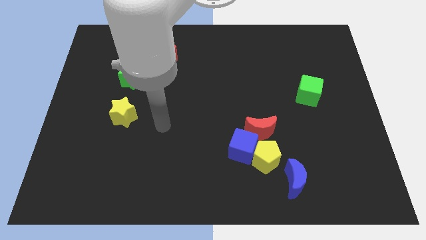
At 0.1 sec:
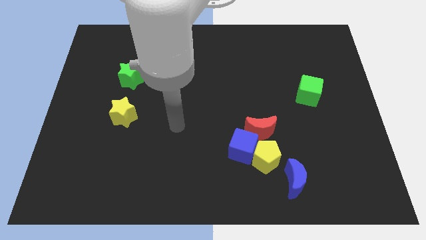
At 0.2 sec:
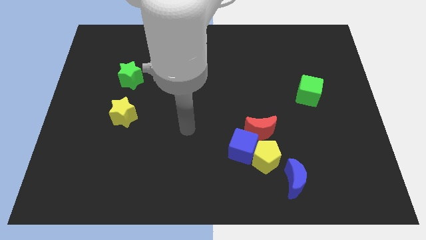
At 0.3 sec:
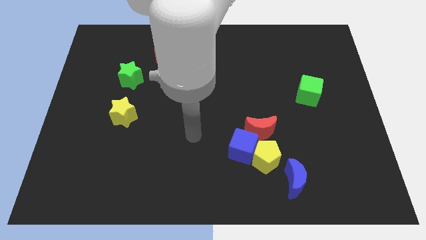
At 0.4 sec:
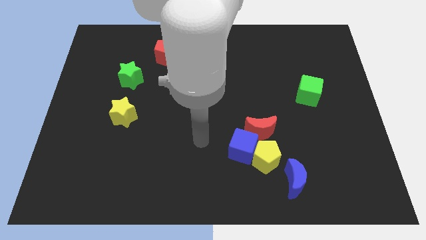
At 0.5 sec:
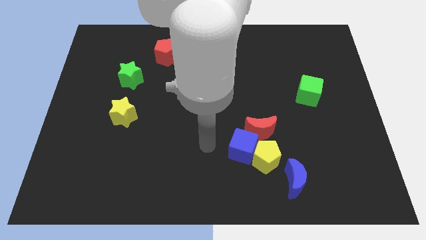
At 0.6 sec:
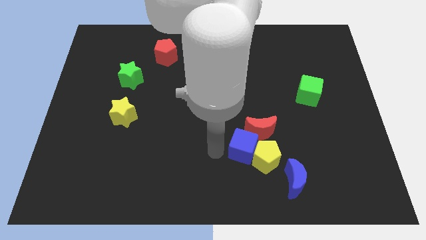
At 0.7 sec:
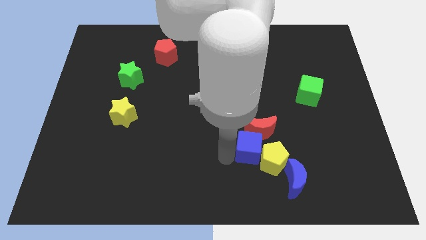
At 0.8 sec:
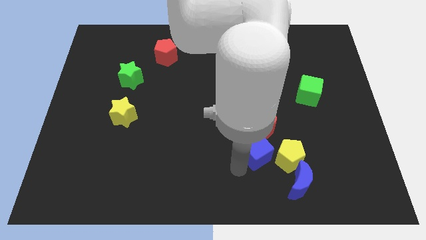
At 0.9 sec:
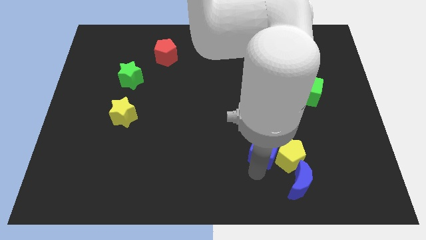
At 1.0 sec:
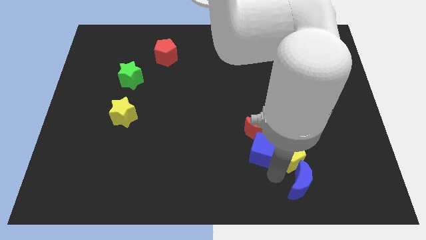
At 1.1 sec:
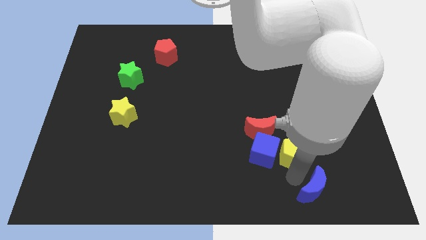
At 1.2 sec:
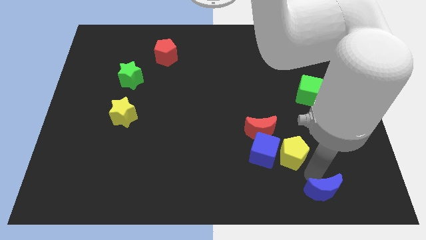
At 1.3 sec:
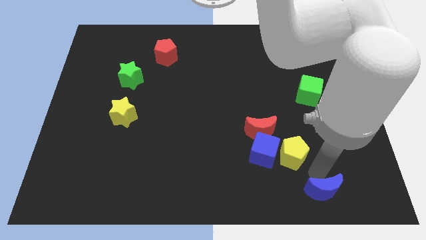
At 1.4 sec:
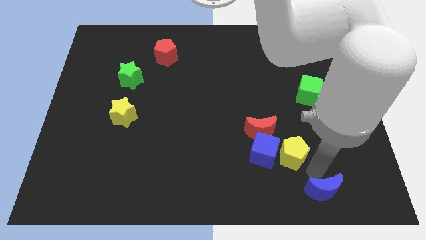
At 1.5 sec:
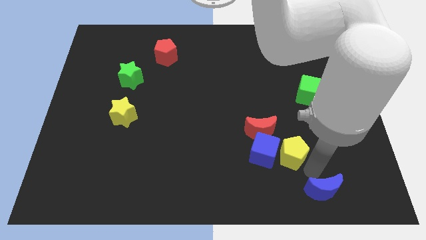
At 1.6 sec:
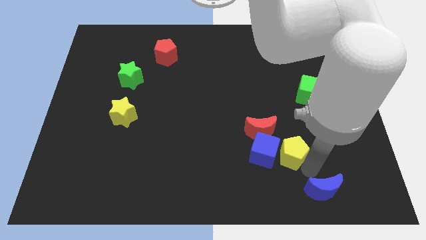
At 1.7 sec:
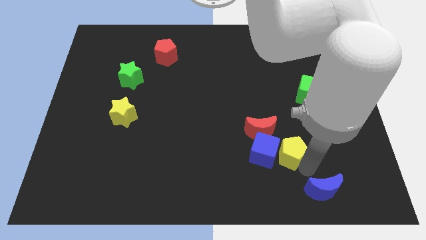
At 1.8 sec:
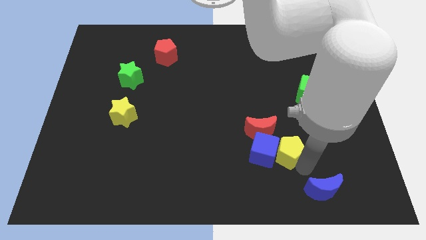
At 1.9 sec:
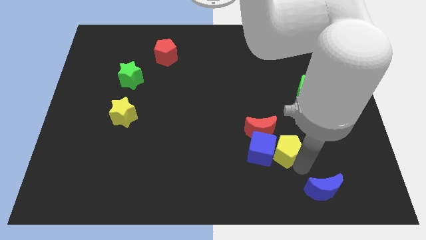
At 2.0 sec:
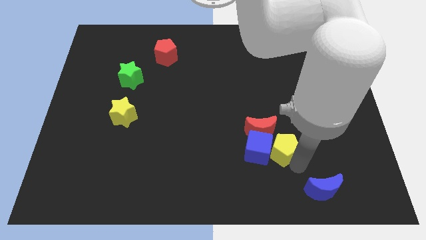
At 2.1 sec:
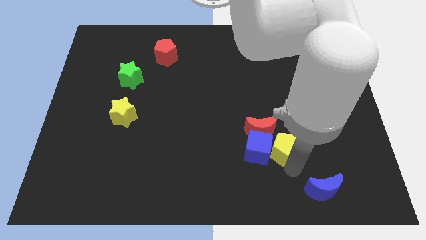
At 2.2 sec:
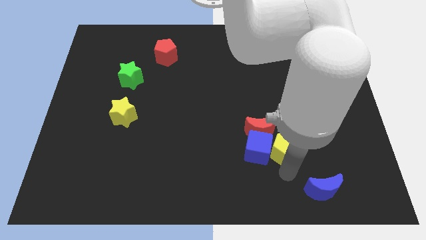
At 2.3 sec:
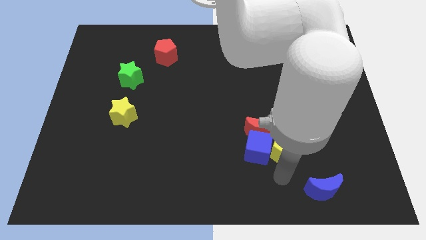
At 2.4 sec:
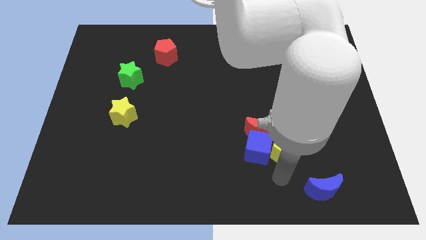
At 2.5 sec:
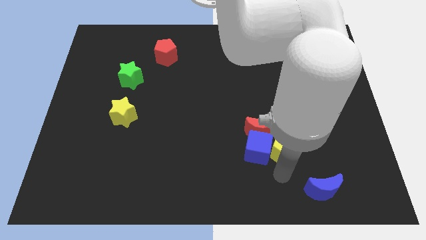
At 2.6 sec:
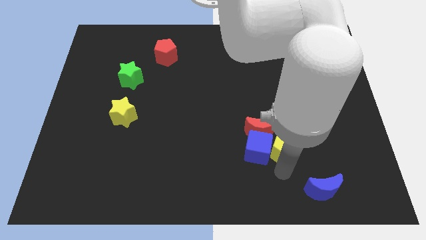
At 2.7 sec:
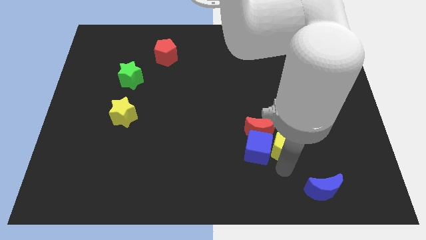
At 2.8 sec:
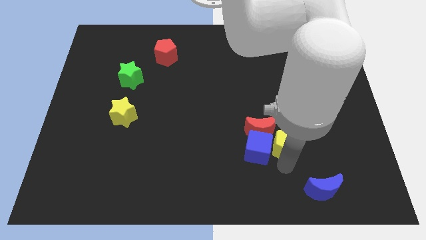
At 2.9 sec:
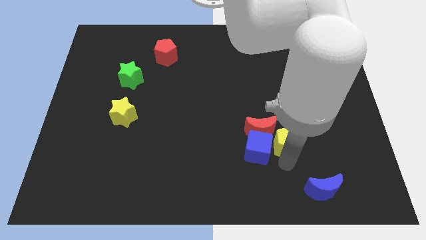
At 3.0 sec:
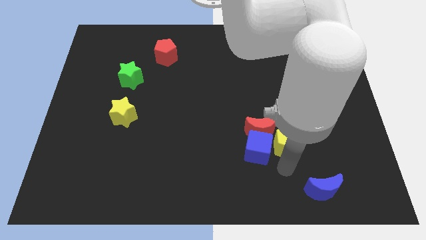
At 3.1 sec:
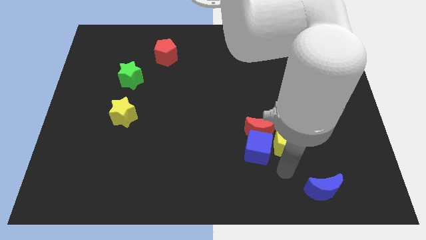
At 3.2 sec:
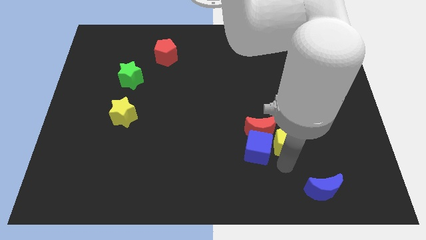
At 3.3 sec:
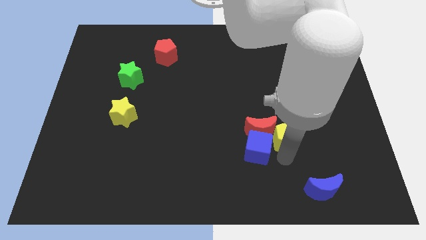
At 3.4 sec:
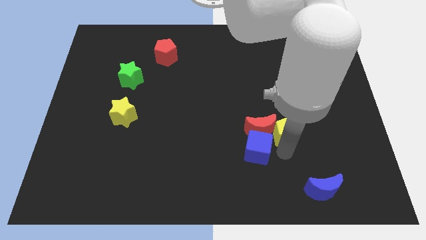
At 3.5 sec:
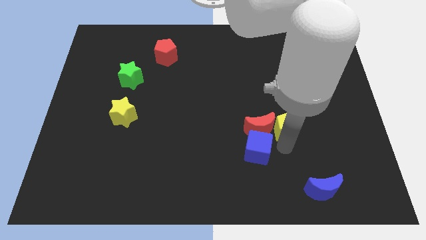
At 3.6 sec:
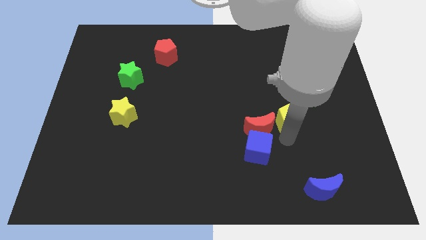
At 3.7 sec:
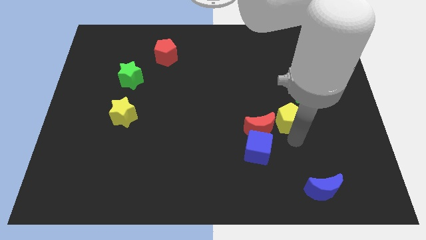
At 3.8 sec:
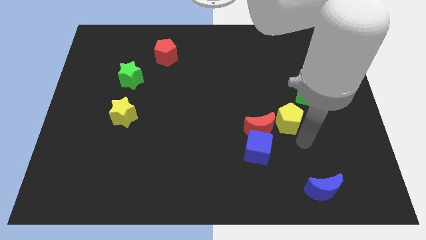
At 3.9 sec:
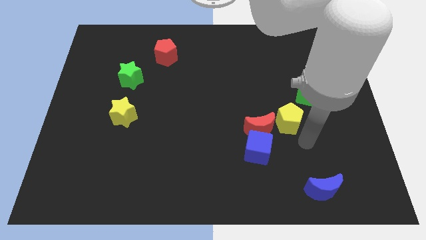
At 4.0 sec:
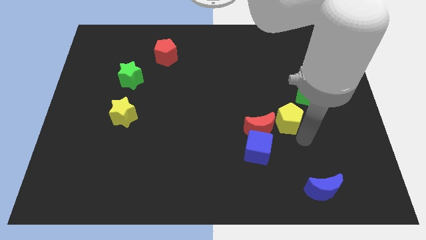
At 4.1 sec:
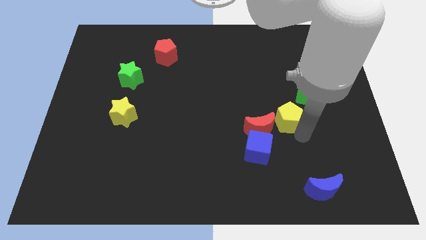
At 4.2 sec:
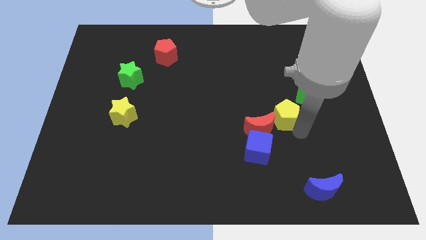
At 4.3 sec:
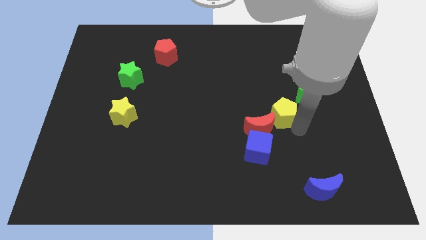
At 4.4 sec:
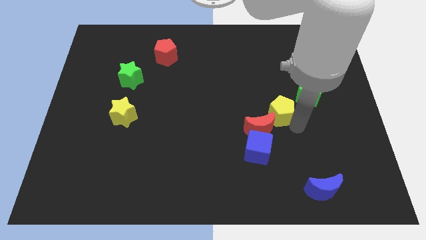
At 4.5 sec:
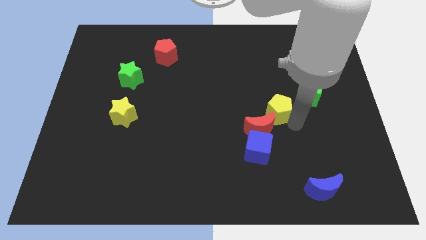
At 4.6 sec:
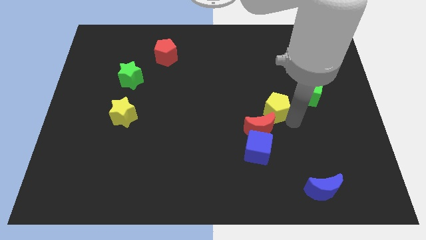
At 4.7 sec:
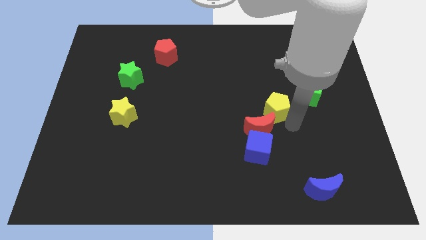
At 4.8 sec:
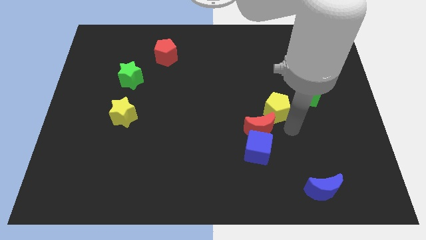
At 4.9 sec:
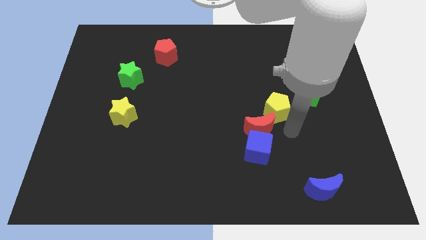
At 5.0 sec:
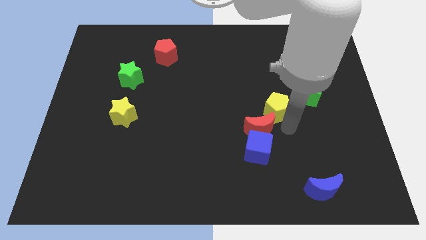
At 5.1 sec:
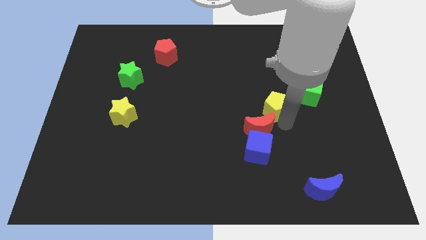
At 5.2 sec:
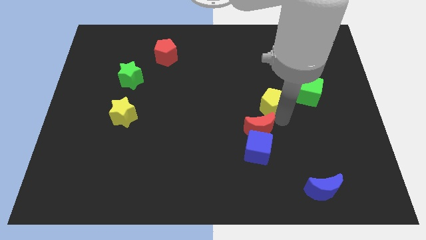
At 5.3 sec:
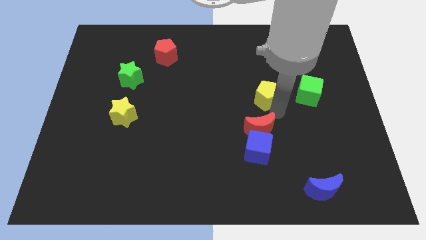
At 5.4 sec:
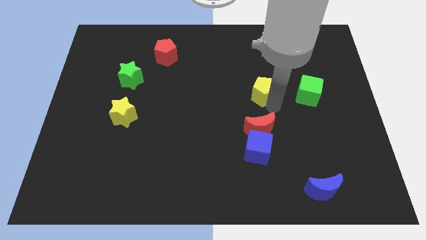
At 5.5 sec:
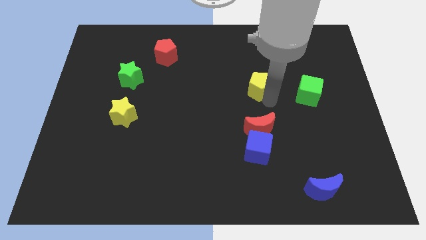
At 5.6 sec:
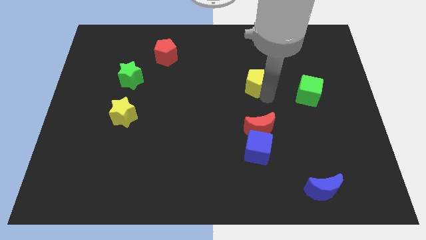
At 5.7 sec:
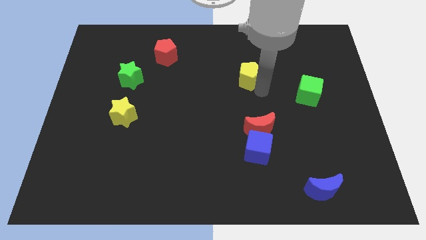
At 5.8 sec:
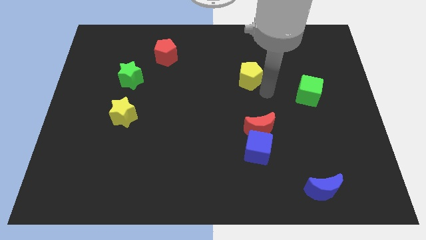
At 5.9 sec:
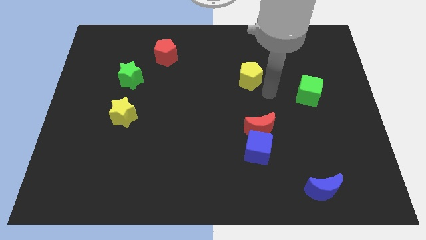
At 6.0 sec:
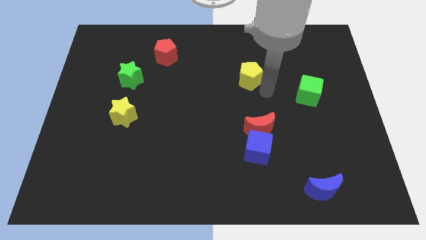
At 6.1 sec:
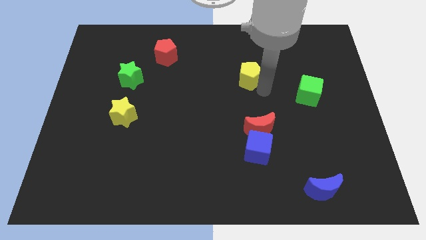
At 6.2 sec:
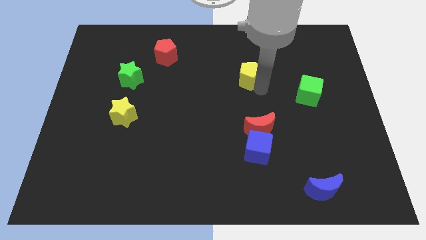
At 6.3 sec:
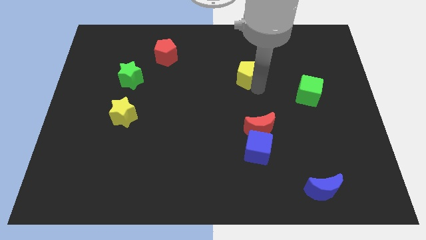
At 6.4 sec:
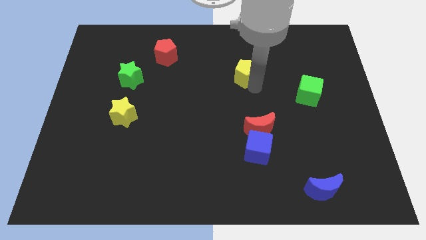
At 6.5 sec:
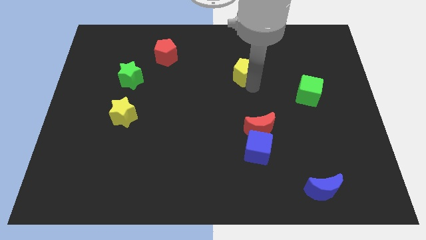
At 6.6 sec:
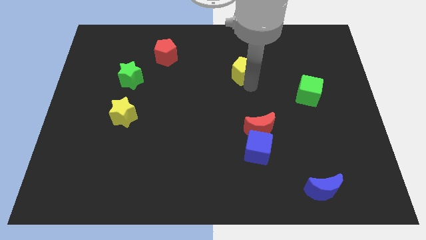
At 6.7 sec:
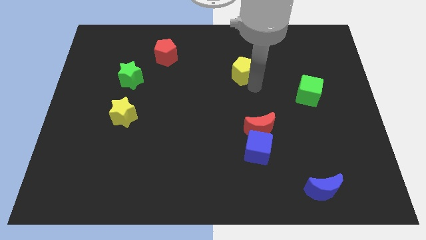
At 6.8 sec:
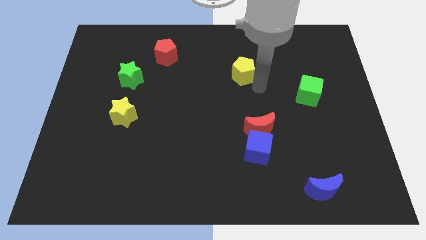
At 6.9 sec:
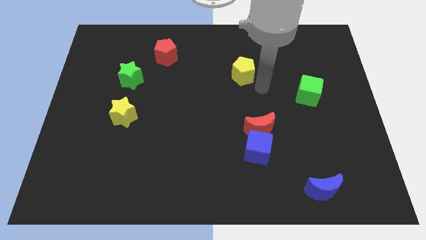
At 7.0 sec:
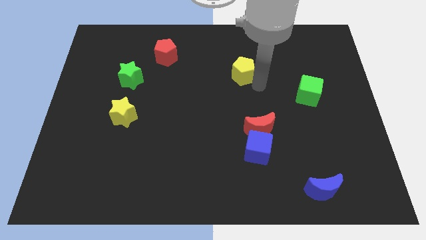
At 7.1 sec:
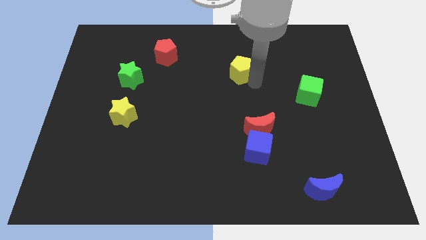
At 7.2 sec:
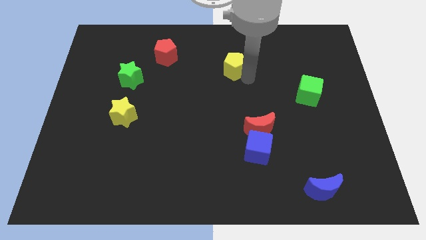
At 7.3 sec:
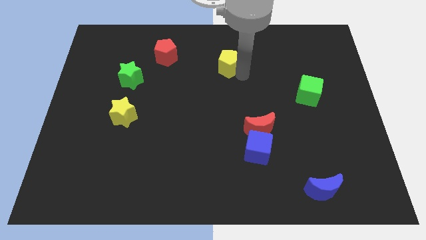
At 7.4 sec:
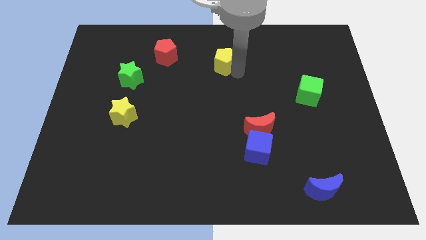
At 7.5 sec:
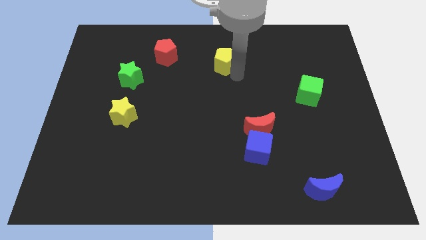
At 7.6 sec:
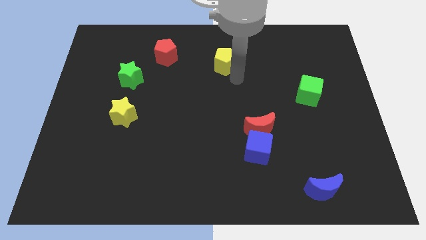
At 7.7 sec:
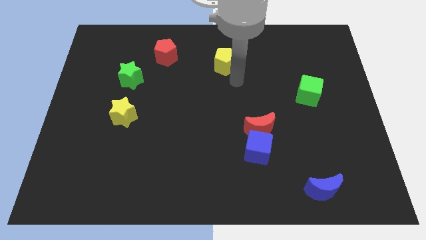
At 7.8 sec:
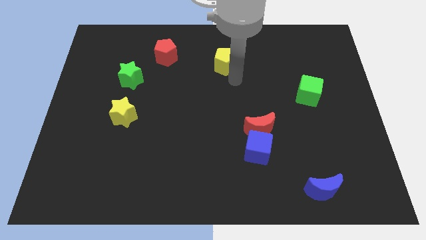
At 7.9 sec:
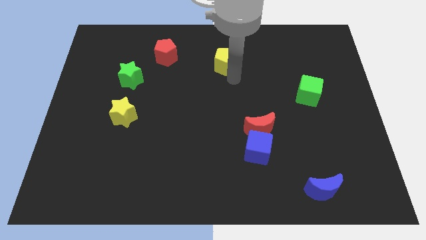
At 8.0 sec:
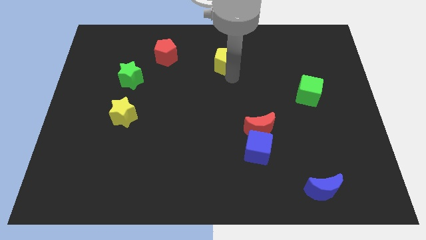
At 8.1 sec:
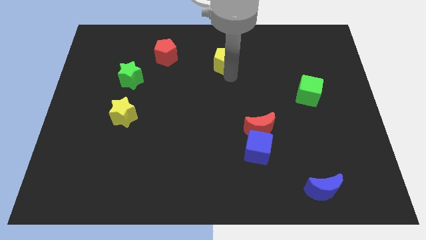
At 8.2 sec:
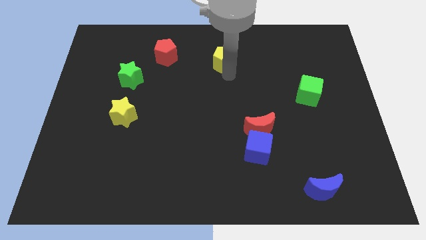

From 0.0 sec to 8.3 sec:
push the yellow pentagon to the right of the red pentagon

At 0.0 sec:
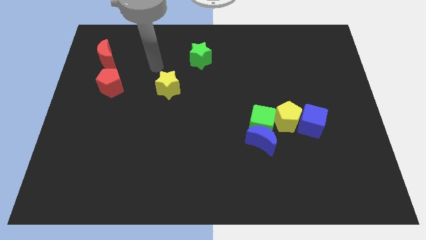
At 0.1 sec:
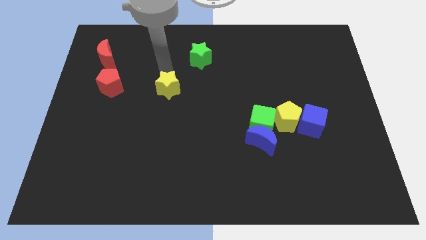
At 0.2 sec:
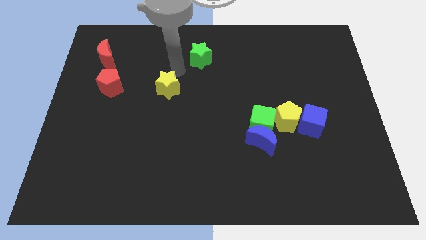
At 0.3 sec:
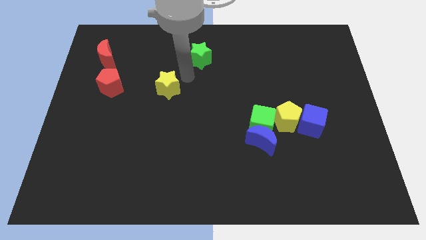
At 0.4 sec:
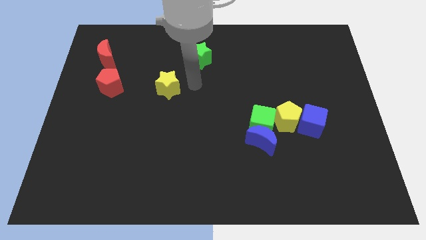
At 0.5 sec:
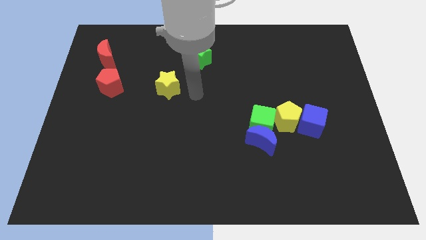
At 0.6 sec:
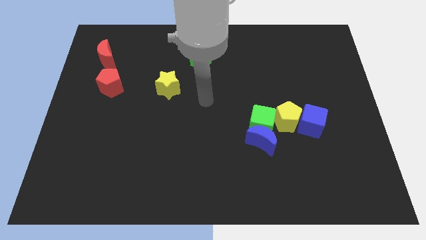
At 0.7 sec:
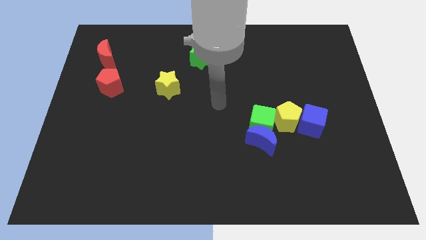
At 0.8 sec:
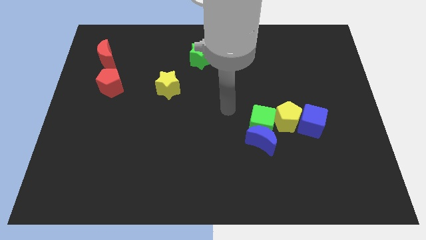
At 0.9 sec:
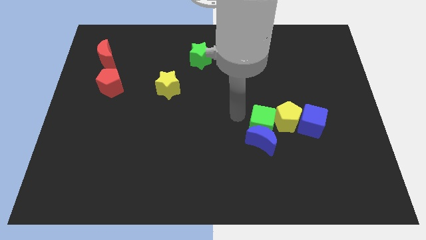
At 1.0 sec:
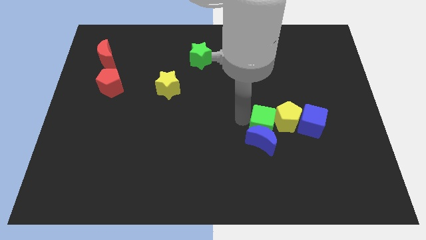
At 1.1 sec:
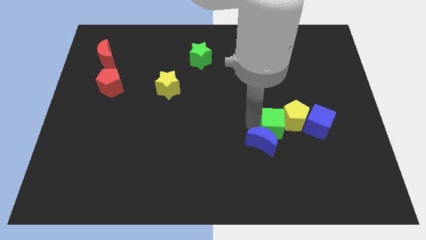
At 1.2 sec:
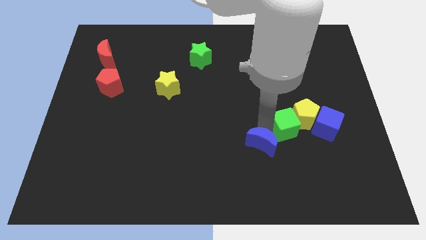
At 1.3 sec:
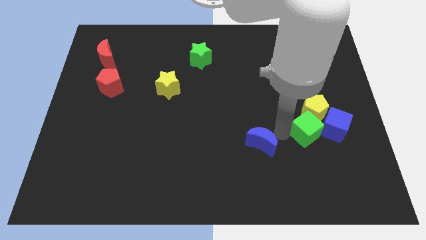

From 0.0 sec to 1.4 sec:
push the yellow pentagon to the top of the blue cube
